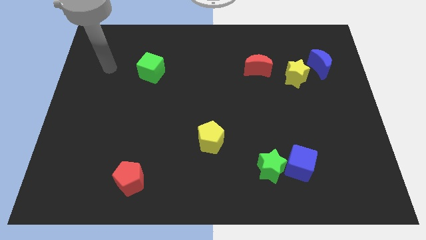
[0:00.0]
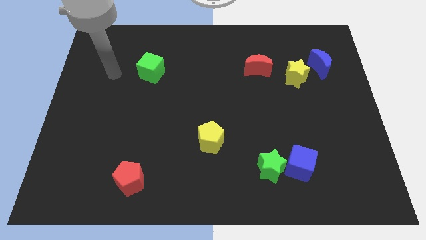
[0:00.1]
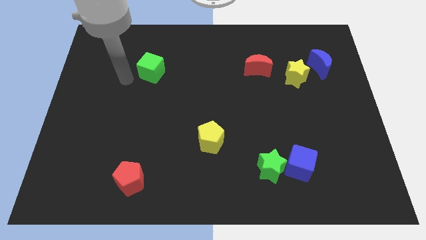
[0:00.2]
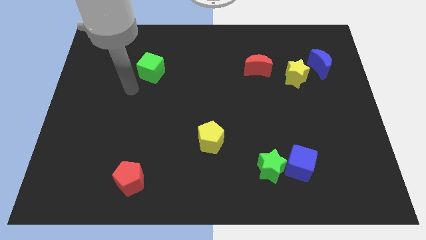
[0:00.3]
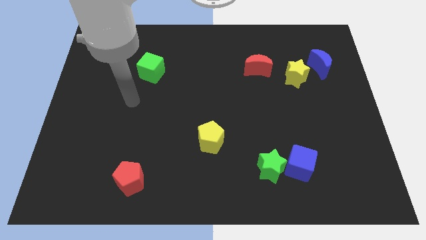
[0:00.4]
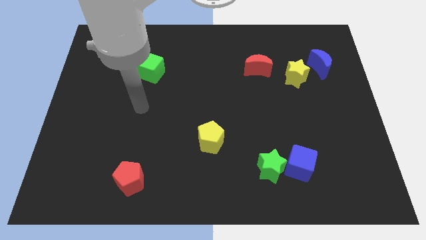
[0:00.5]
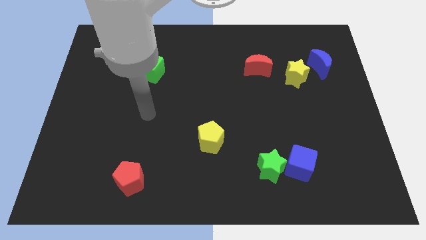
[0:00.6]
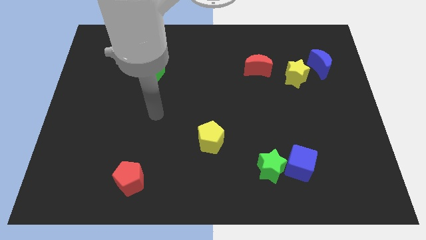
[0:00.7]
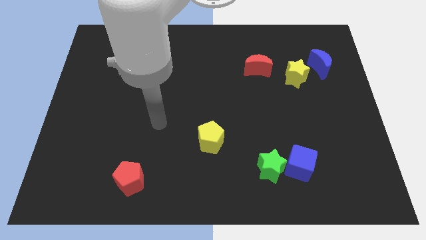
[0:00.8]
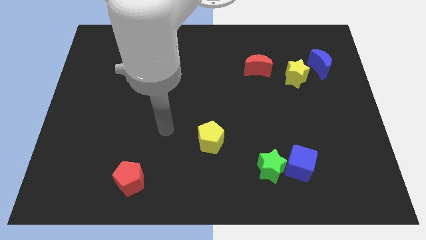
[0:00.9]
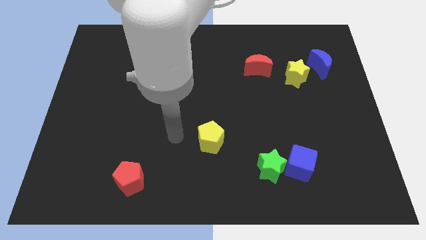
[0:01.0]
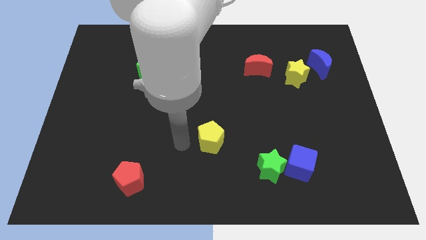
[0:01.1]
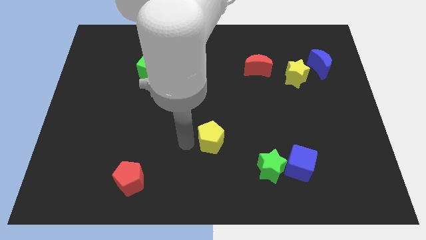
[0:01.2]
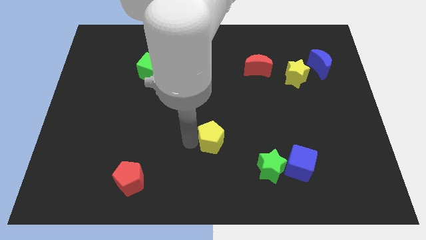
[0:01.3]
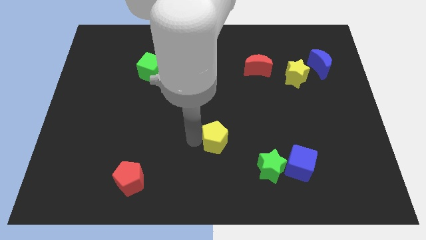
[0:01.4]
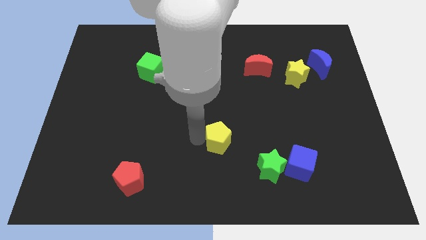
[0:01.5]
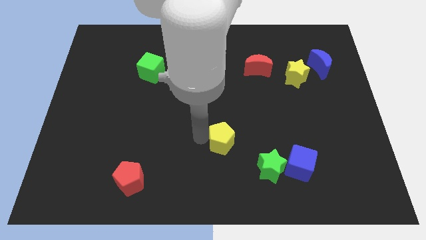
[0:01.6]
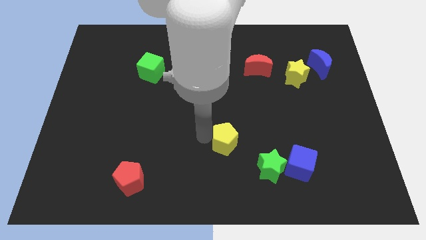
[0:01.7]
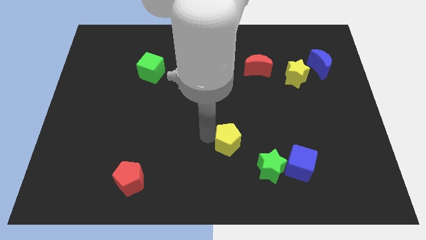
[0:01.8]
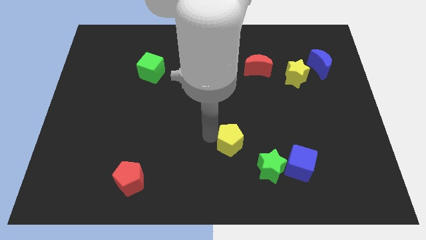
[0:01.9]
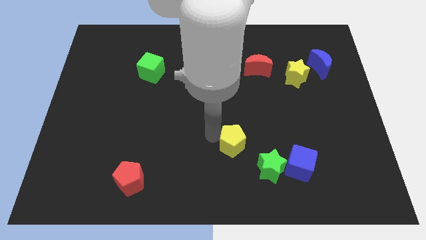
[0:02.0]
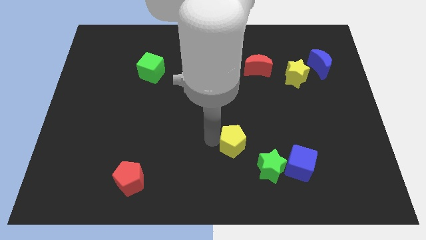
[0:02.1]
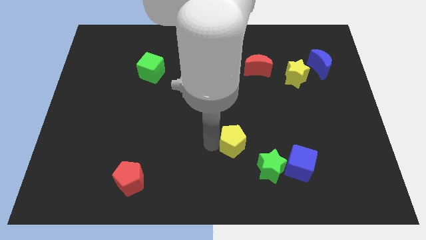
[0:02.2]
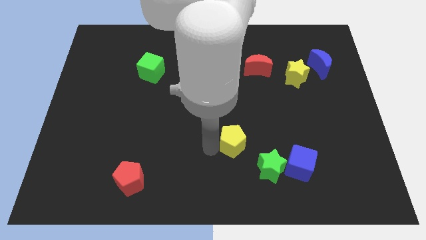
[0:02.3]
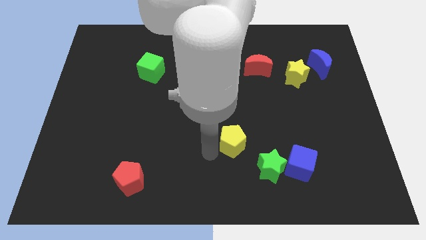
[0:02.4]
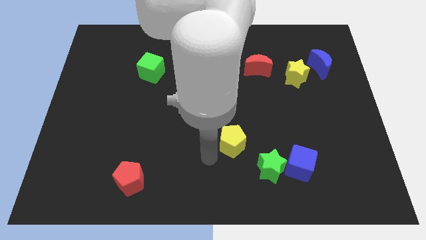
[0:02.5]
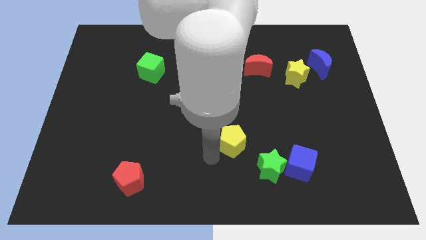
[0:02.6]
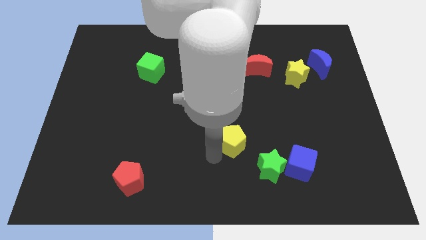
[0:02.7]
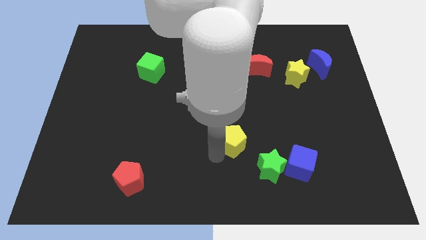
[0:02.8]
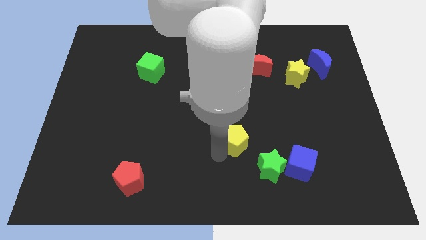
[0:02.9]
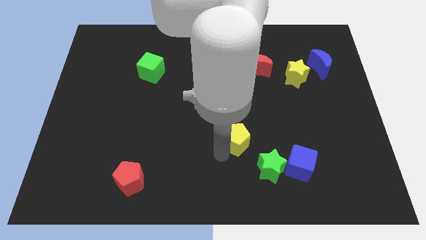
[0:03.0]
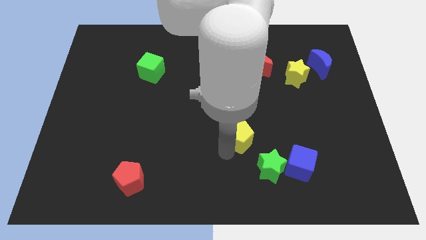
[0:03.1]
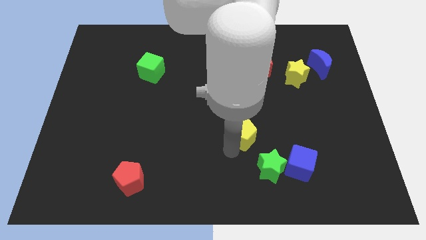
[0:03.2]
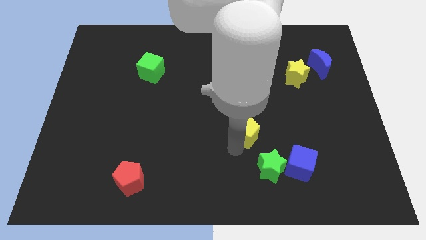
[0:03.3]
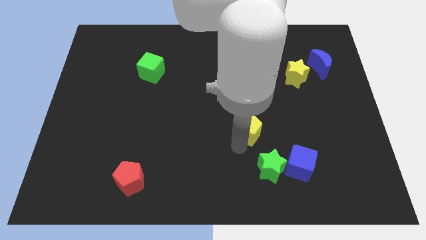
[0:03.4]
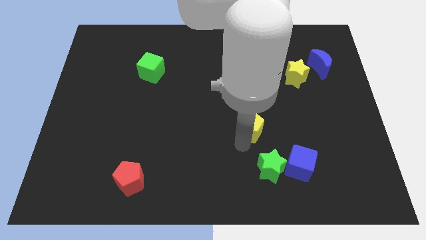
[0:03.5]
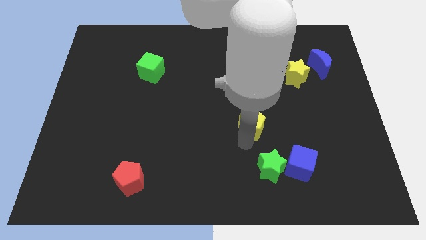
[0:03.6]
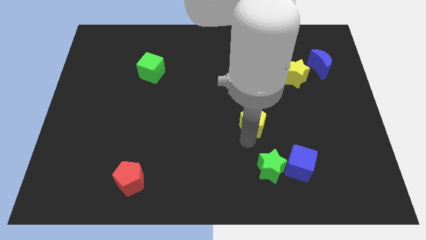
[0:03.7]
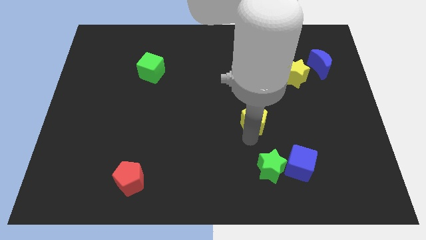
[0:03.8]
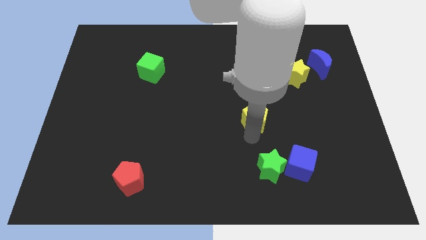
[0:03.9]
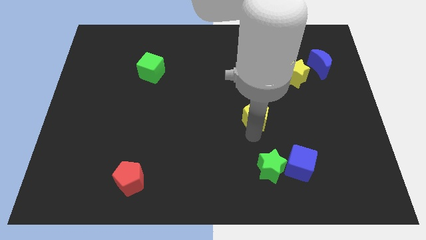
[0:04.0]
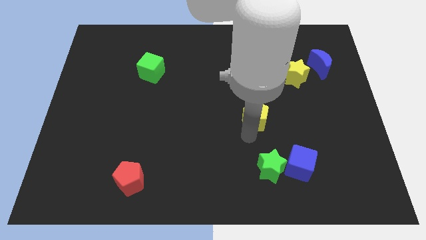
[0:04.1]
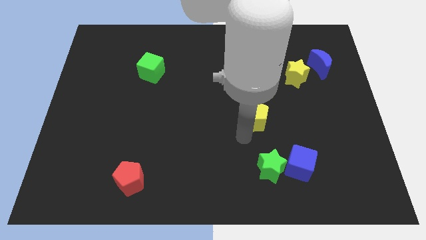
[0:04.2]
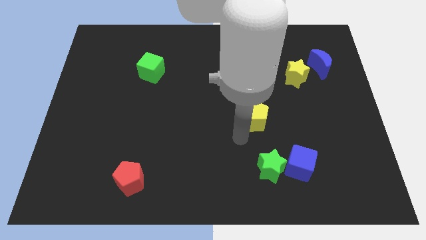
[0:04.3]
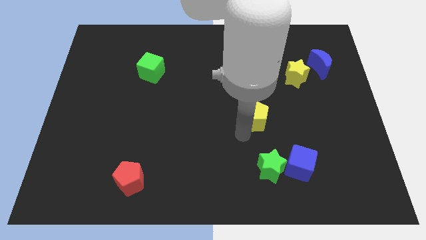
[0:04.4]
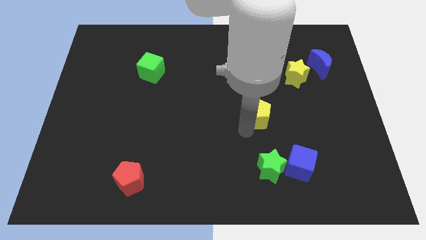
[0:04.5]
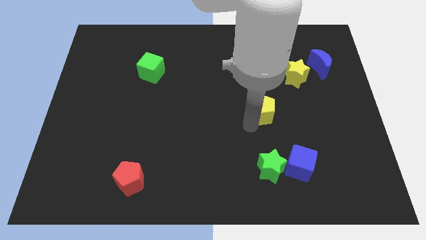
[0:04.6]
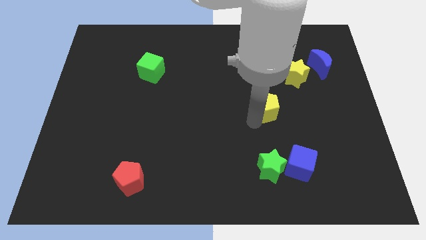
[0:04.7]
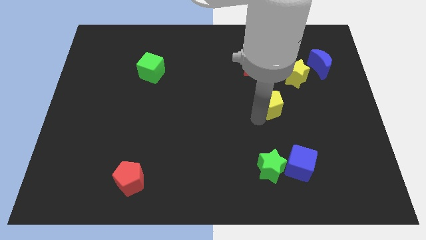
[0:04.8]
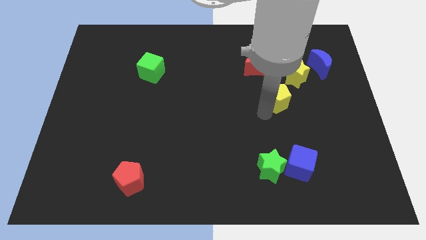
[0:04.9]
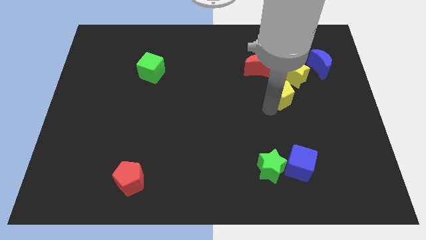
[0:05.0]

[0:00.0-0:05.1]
move the yellow pentagon upwards and then to the right

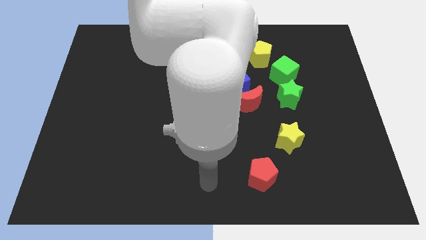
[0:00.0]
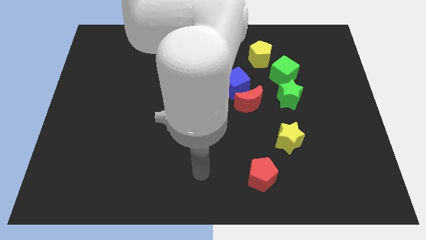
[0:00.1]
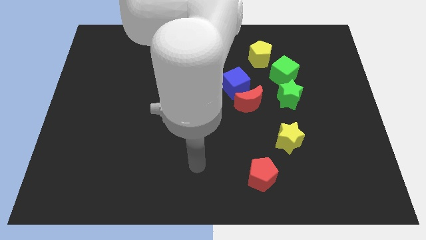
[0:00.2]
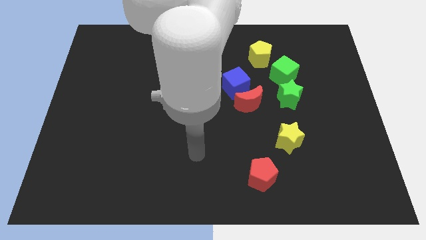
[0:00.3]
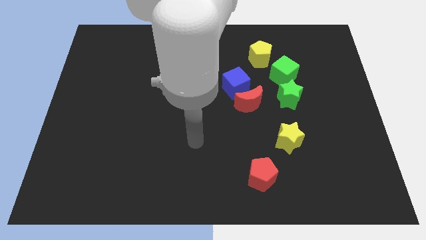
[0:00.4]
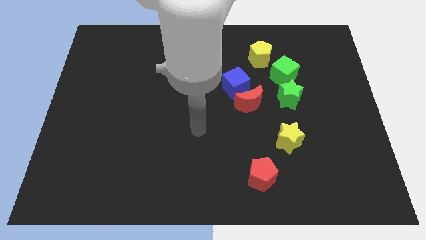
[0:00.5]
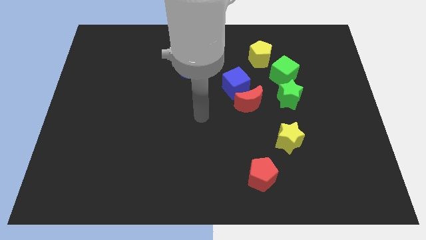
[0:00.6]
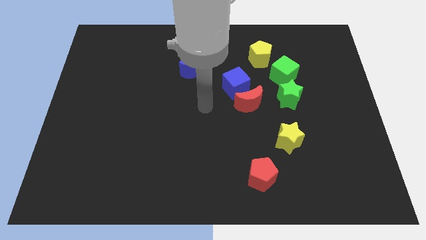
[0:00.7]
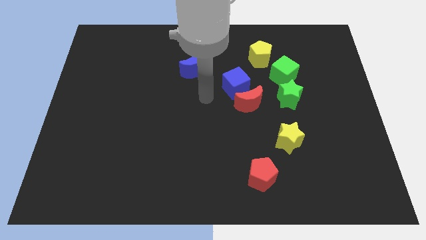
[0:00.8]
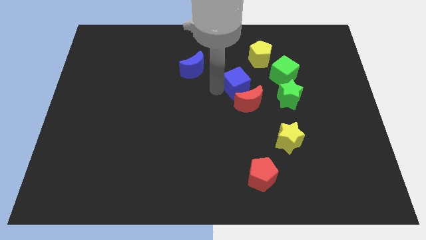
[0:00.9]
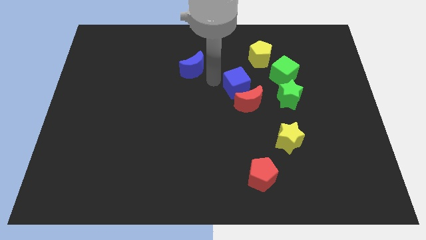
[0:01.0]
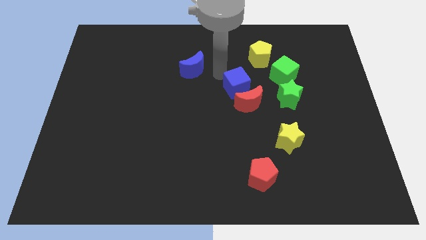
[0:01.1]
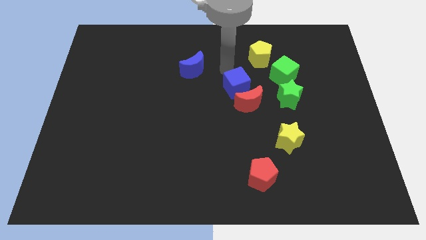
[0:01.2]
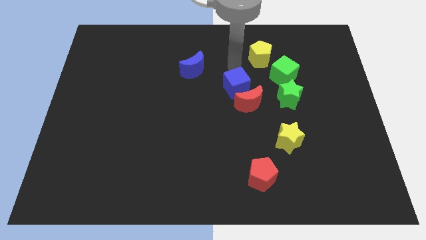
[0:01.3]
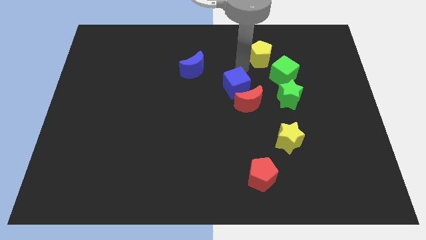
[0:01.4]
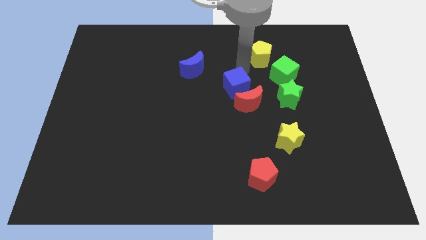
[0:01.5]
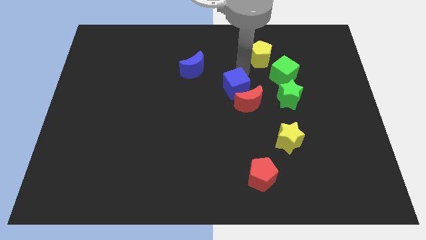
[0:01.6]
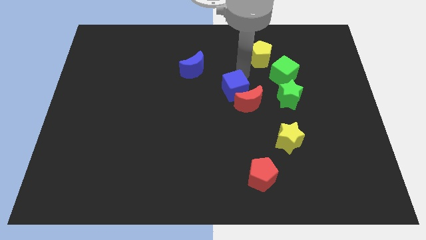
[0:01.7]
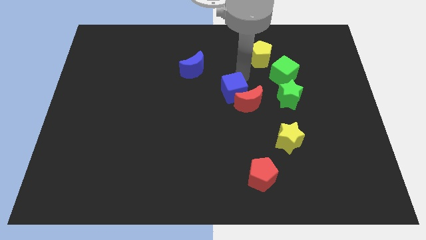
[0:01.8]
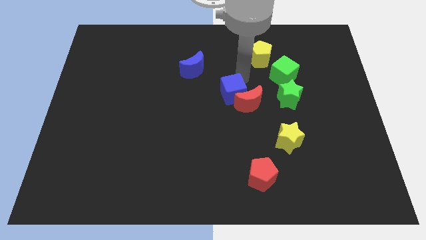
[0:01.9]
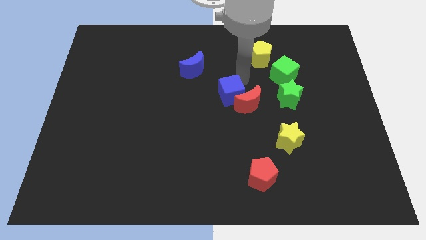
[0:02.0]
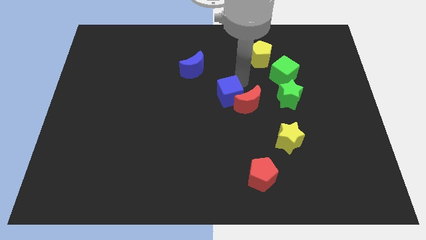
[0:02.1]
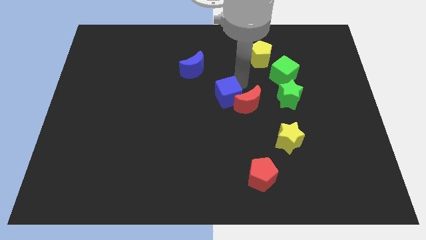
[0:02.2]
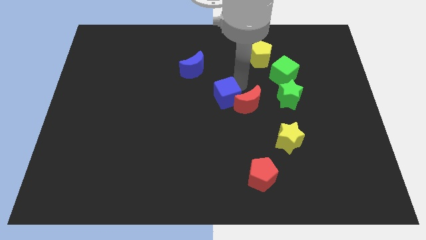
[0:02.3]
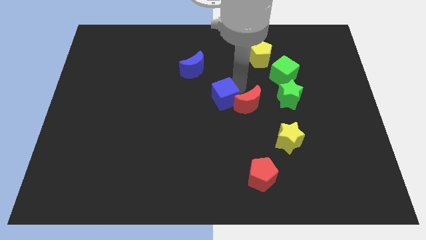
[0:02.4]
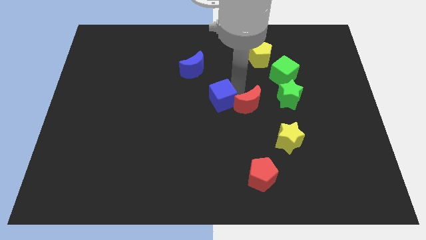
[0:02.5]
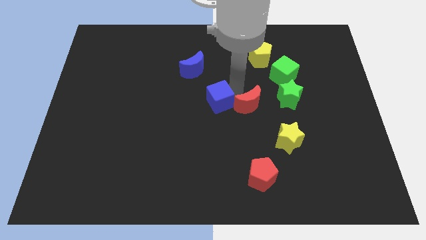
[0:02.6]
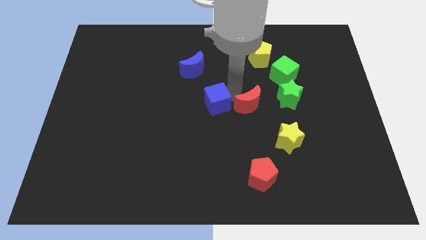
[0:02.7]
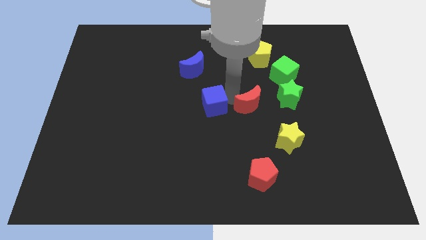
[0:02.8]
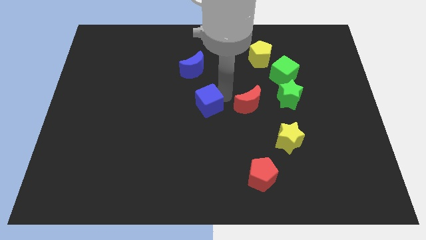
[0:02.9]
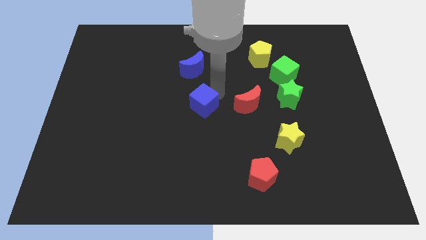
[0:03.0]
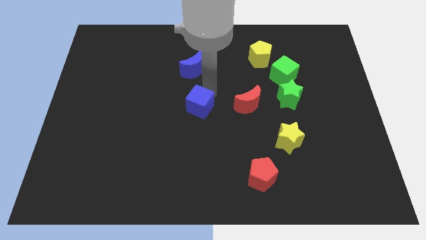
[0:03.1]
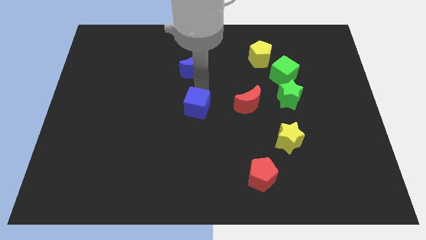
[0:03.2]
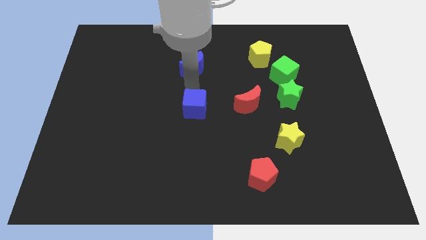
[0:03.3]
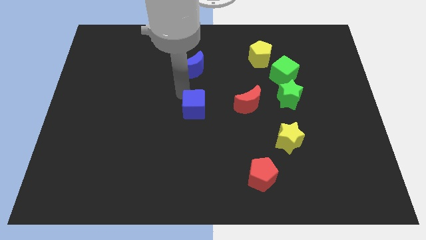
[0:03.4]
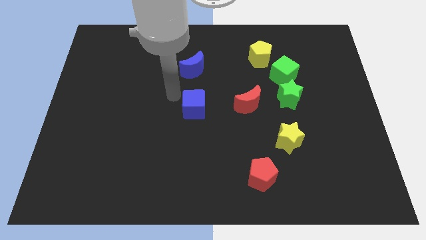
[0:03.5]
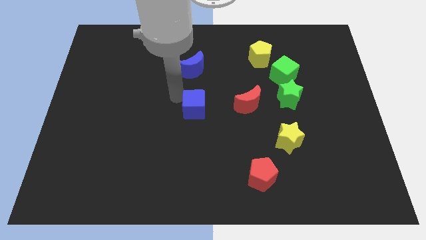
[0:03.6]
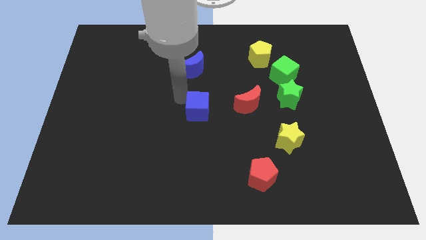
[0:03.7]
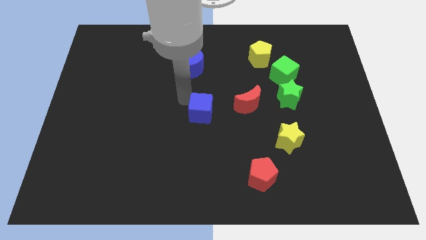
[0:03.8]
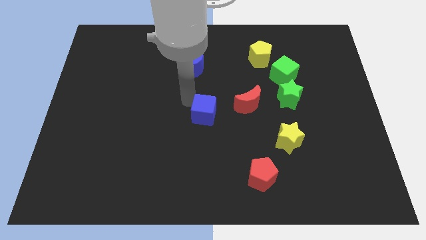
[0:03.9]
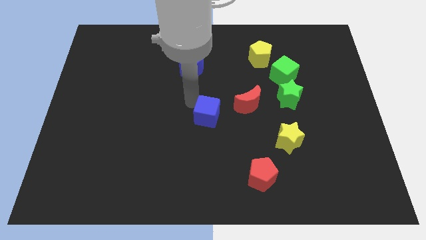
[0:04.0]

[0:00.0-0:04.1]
slide the blue cube a bit down
